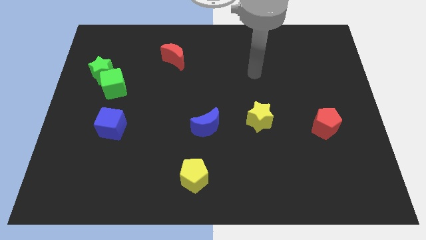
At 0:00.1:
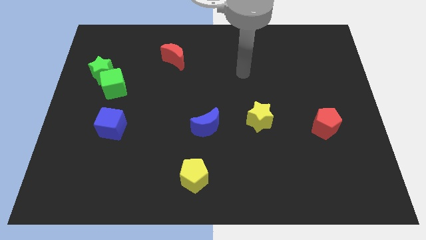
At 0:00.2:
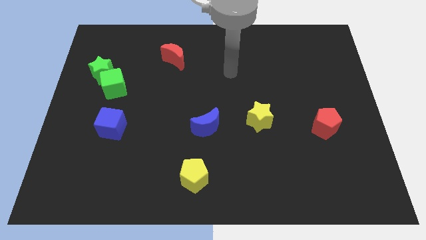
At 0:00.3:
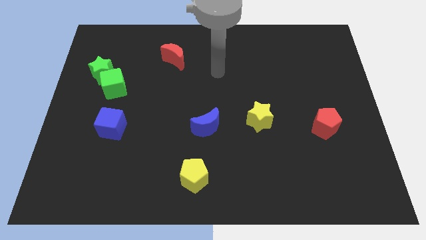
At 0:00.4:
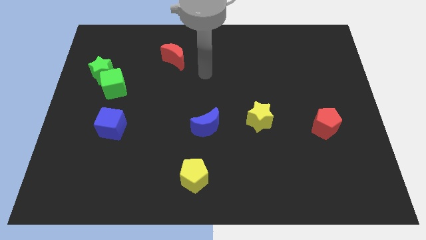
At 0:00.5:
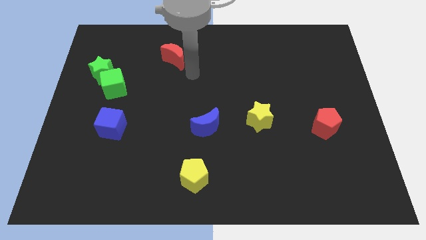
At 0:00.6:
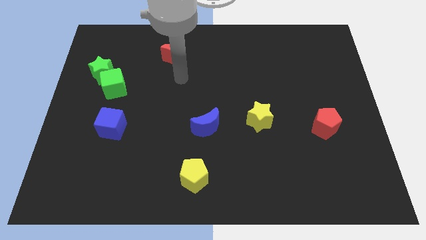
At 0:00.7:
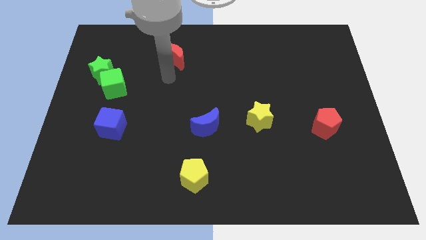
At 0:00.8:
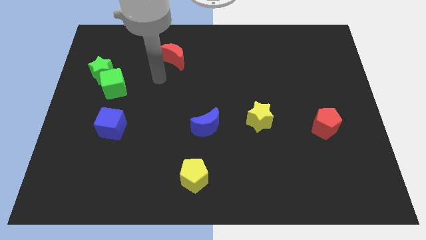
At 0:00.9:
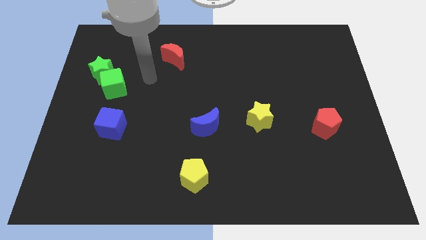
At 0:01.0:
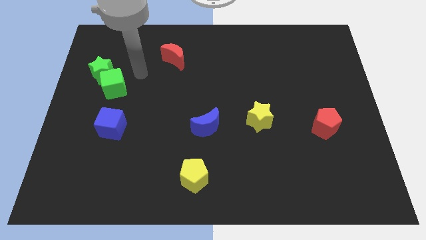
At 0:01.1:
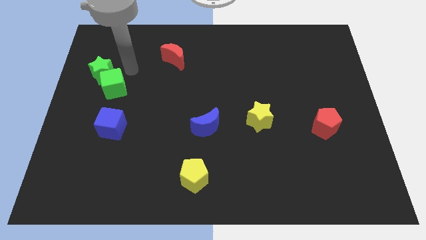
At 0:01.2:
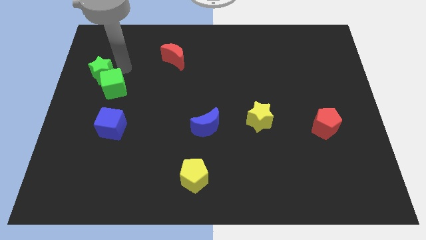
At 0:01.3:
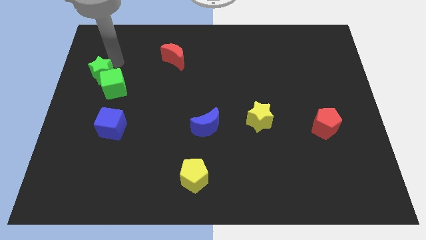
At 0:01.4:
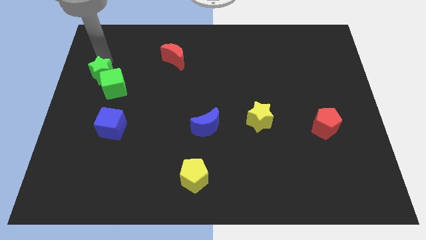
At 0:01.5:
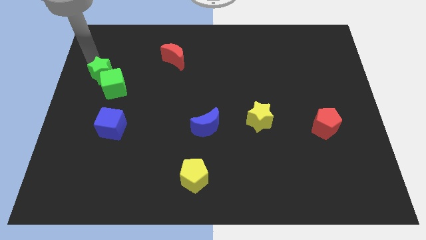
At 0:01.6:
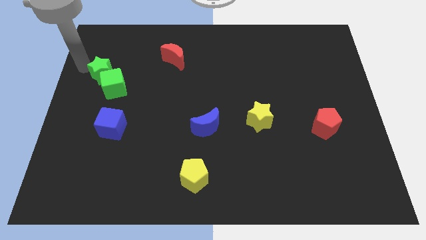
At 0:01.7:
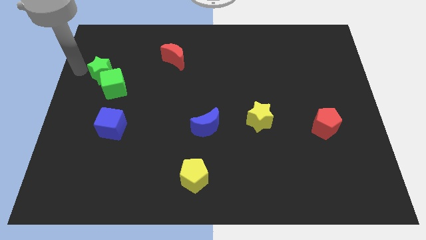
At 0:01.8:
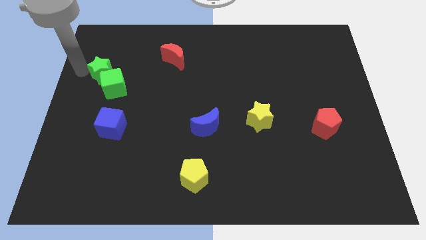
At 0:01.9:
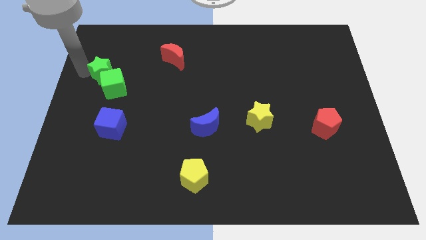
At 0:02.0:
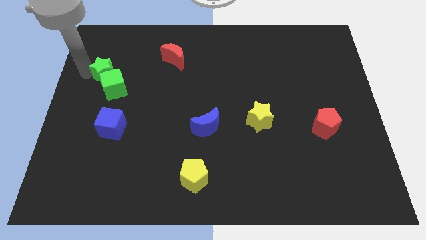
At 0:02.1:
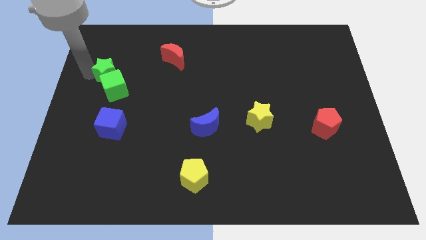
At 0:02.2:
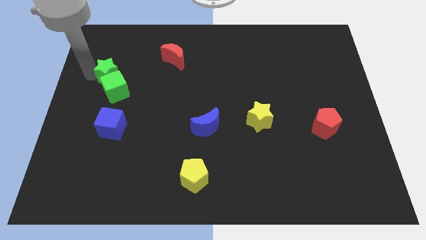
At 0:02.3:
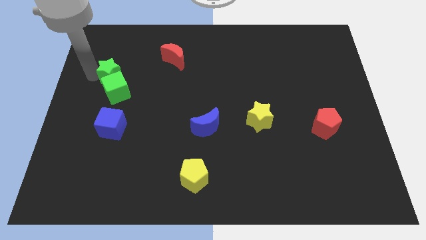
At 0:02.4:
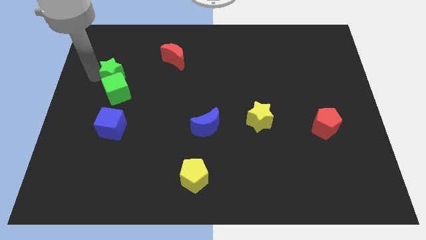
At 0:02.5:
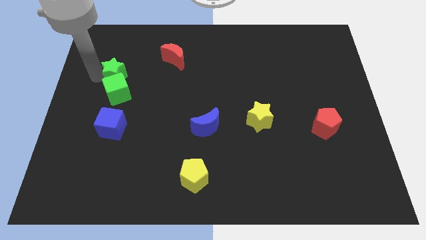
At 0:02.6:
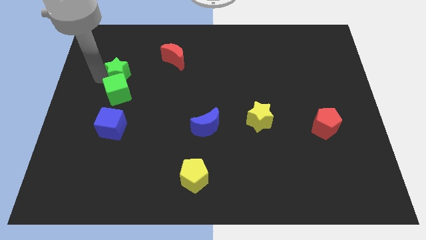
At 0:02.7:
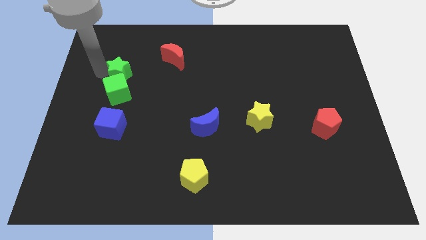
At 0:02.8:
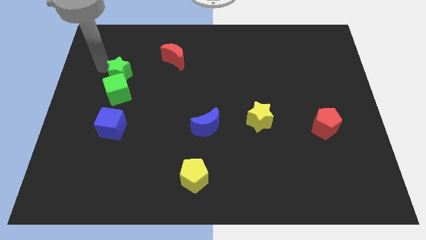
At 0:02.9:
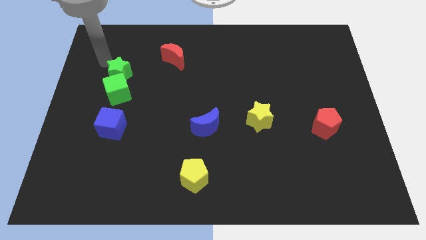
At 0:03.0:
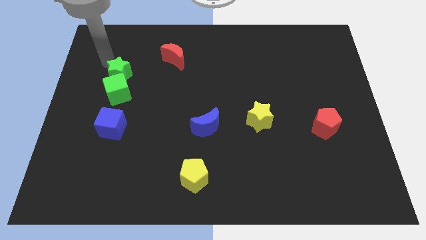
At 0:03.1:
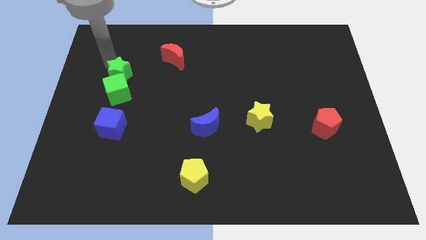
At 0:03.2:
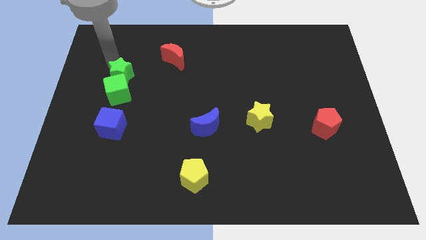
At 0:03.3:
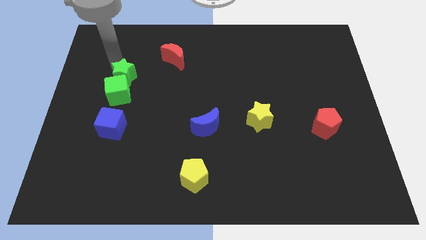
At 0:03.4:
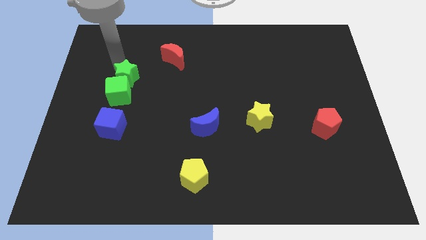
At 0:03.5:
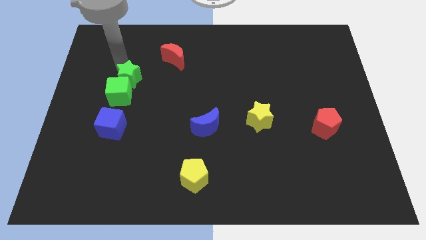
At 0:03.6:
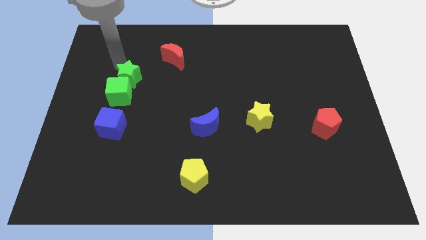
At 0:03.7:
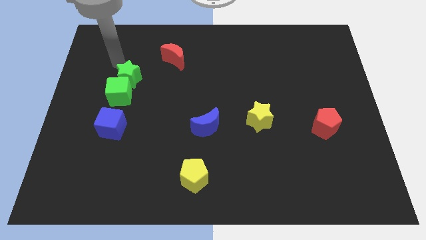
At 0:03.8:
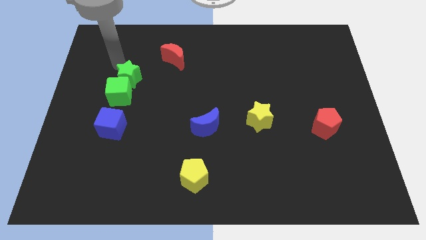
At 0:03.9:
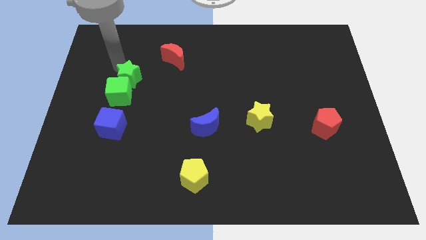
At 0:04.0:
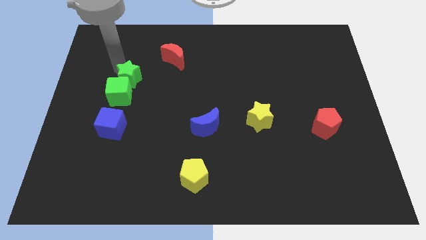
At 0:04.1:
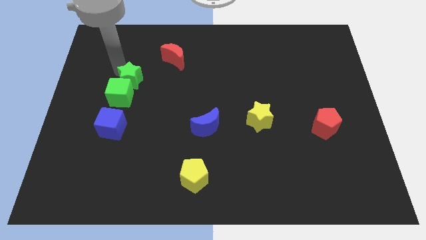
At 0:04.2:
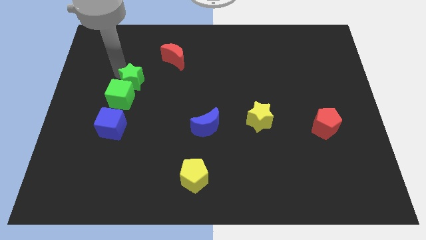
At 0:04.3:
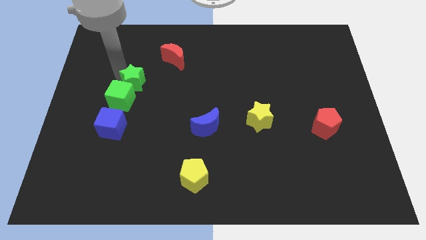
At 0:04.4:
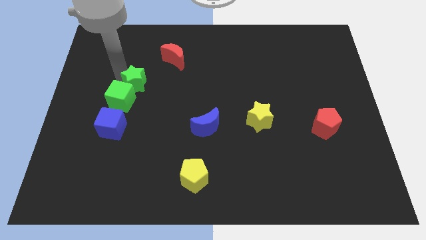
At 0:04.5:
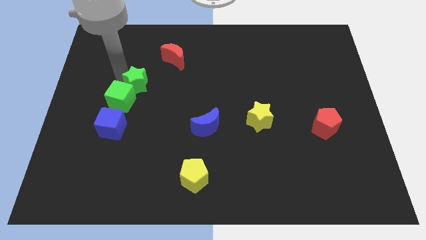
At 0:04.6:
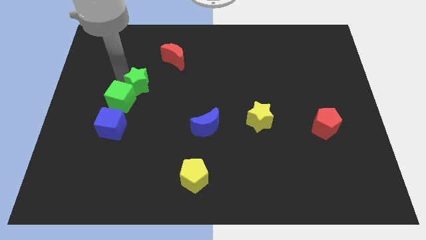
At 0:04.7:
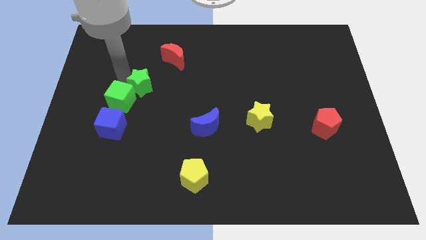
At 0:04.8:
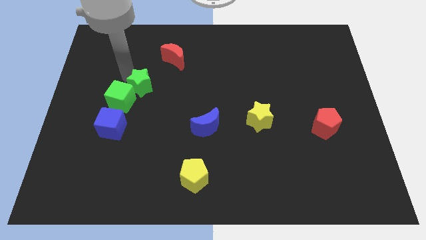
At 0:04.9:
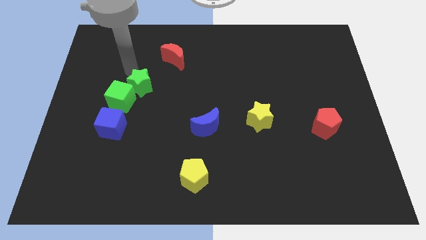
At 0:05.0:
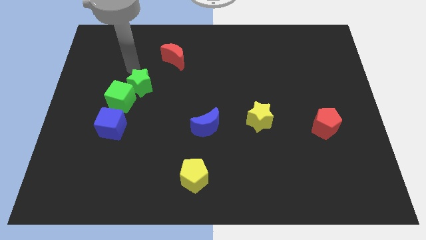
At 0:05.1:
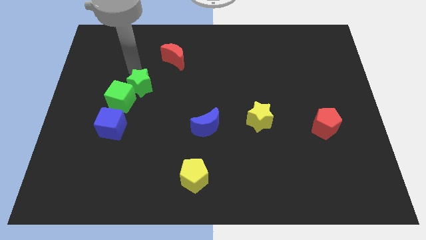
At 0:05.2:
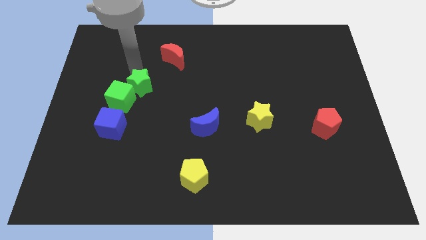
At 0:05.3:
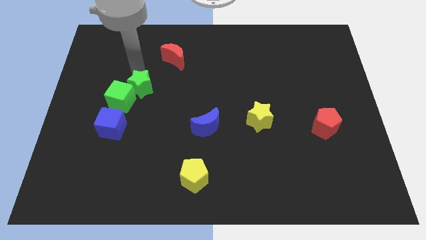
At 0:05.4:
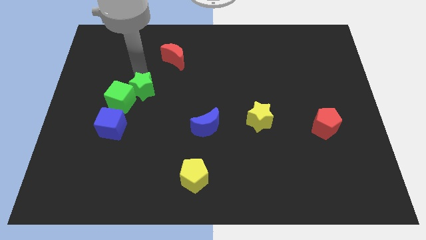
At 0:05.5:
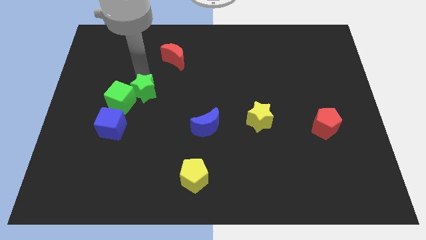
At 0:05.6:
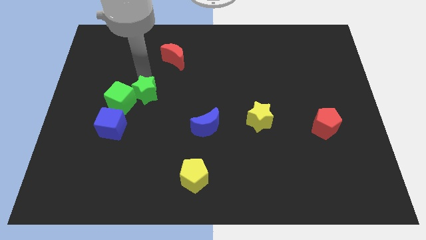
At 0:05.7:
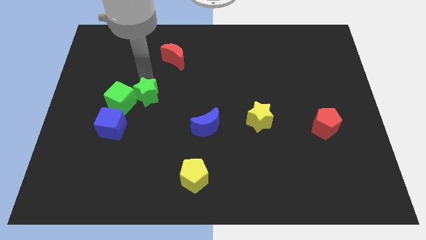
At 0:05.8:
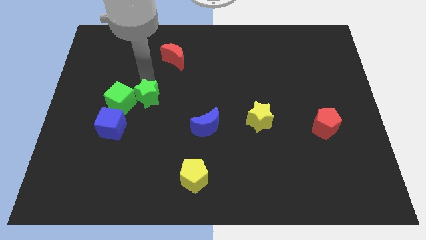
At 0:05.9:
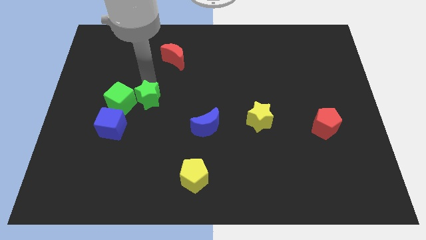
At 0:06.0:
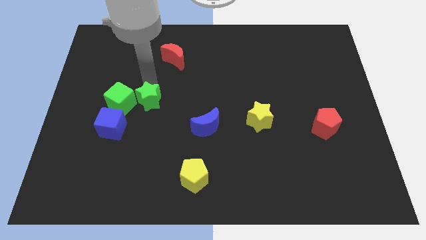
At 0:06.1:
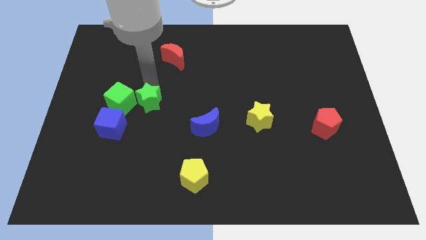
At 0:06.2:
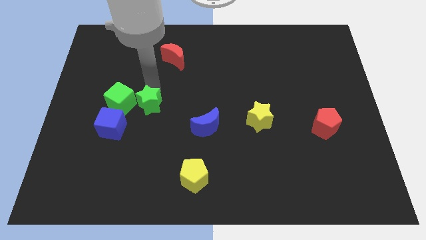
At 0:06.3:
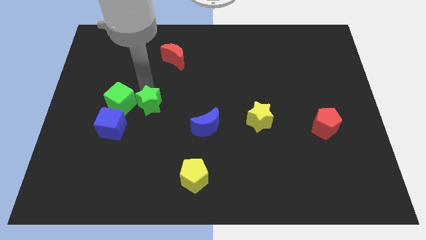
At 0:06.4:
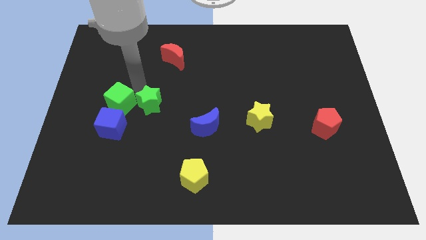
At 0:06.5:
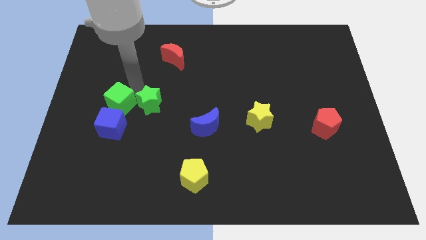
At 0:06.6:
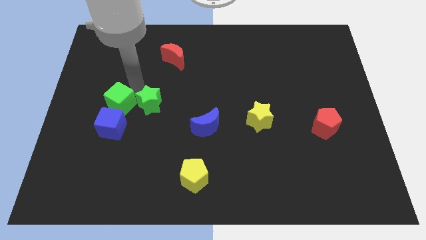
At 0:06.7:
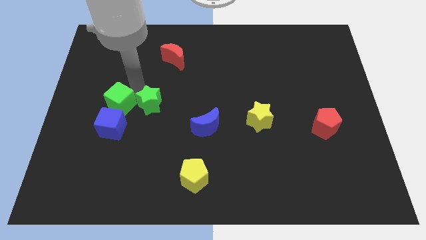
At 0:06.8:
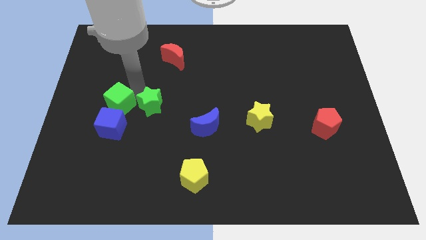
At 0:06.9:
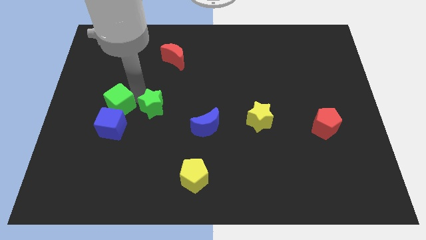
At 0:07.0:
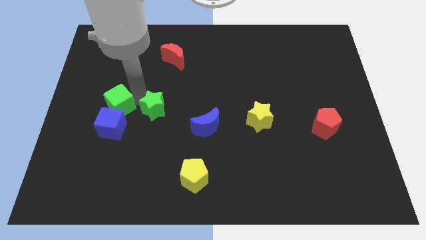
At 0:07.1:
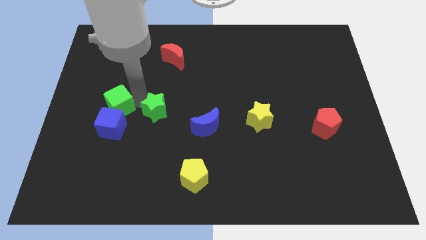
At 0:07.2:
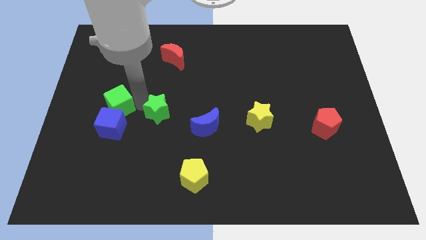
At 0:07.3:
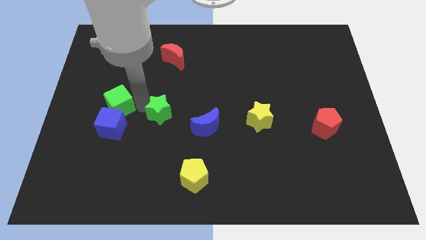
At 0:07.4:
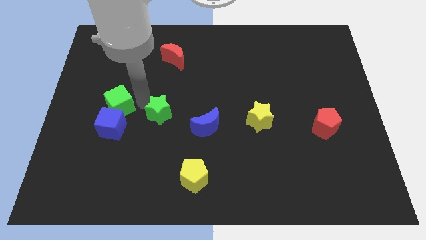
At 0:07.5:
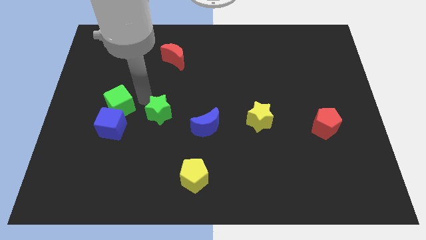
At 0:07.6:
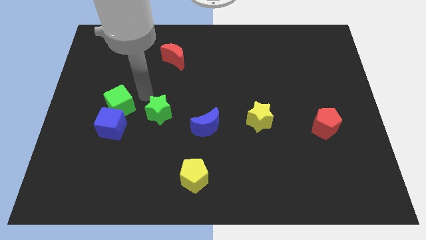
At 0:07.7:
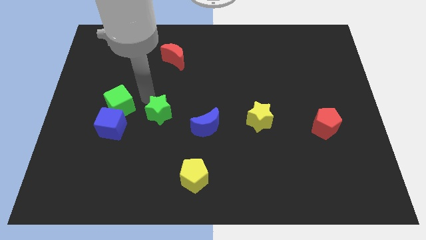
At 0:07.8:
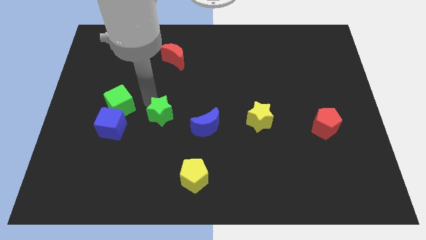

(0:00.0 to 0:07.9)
slide the green star diagonally down and right

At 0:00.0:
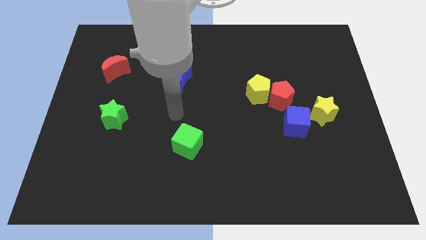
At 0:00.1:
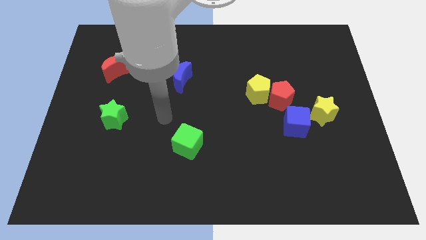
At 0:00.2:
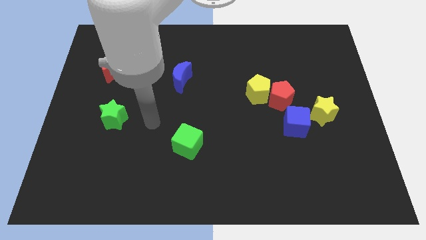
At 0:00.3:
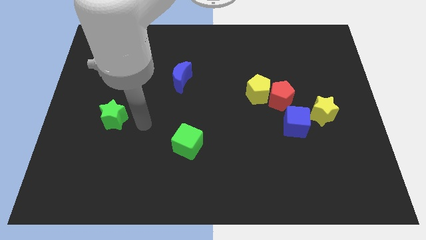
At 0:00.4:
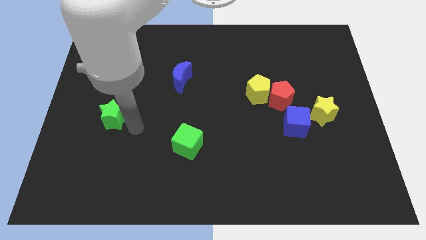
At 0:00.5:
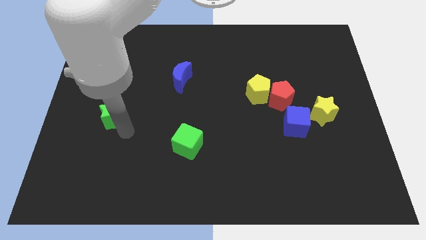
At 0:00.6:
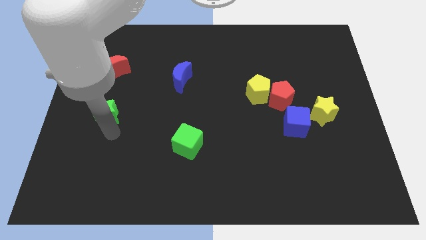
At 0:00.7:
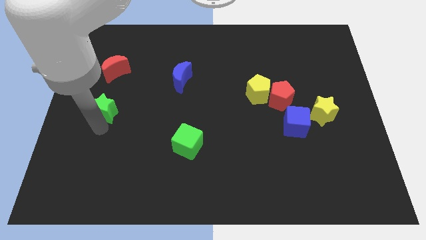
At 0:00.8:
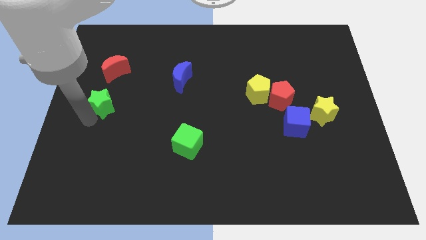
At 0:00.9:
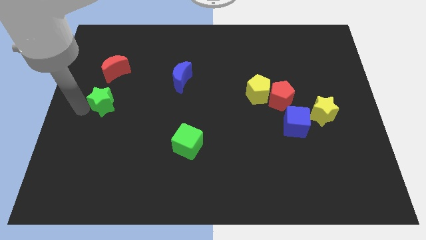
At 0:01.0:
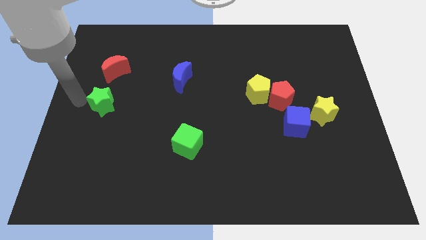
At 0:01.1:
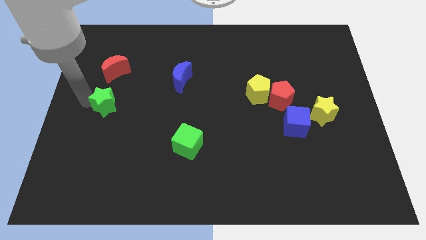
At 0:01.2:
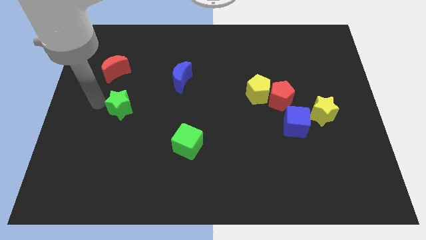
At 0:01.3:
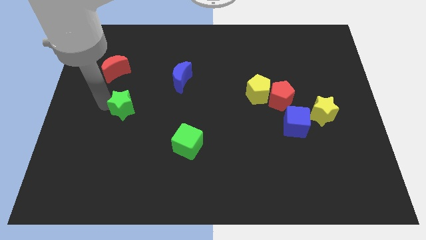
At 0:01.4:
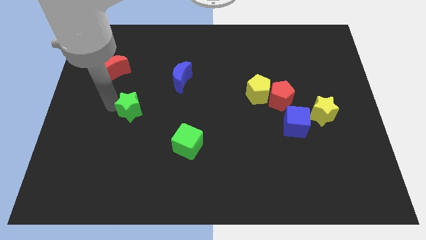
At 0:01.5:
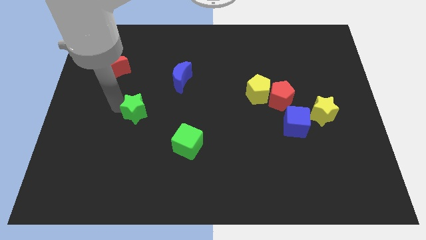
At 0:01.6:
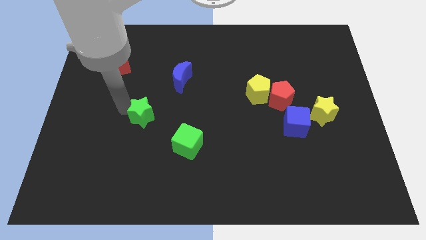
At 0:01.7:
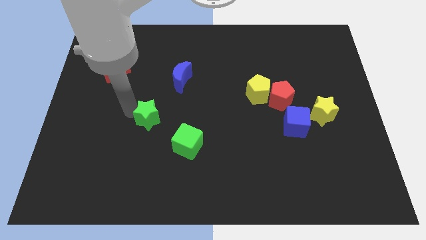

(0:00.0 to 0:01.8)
slide the green star slightly right
